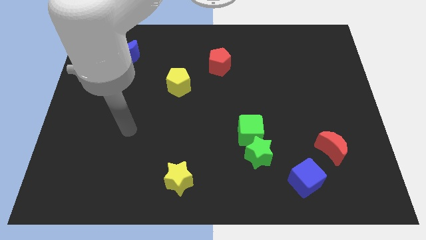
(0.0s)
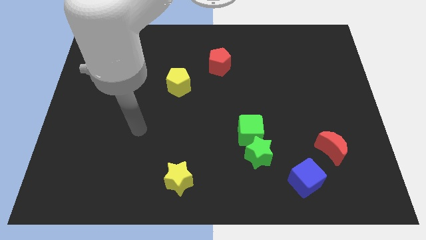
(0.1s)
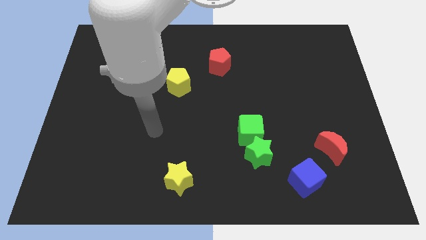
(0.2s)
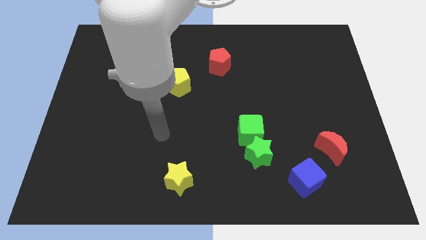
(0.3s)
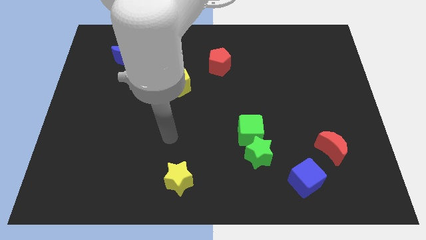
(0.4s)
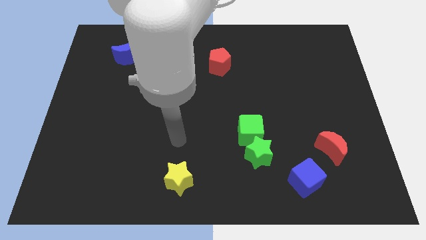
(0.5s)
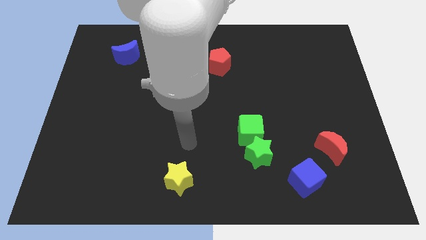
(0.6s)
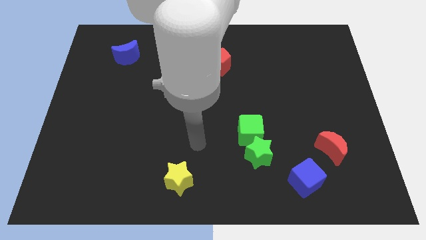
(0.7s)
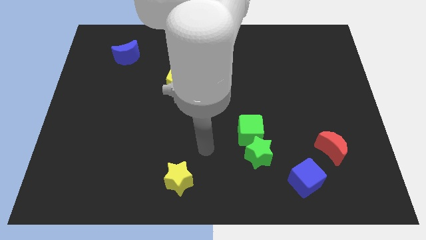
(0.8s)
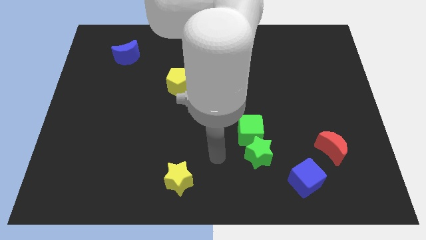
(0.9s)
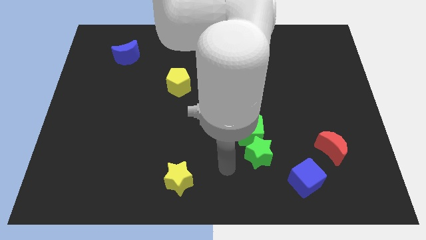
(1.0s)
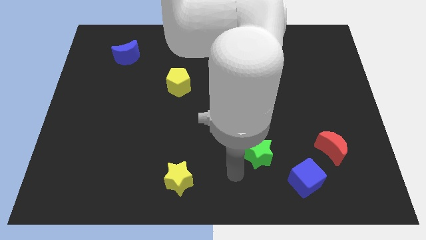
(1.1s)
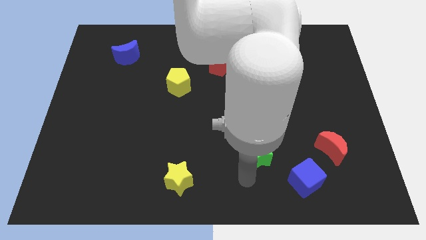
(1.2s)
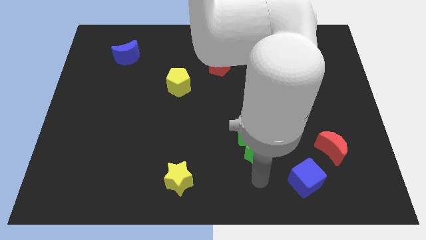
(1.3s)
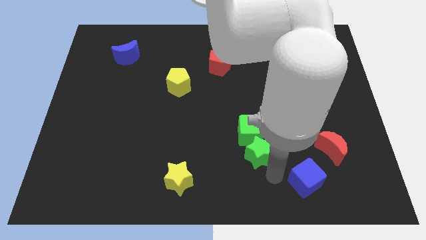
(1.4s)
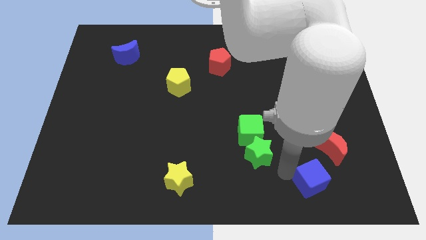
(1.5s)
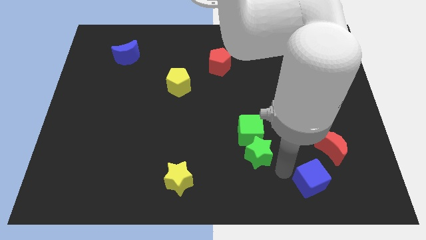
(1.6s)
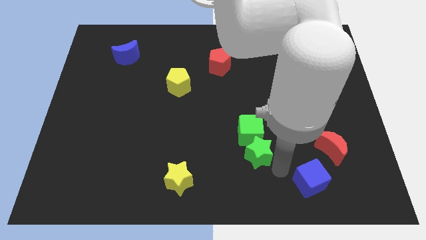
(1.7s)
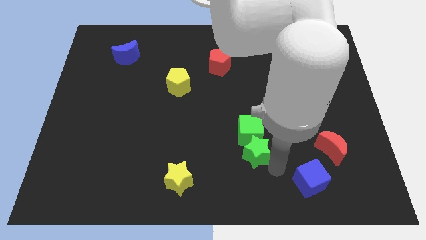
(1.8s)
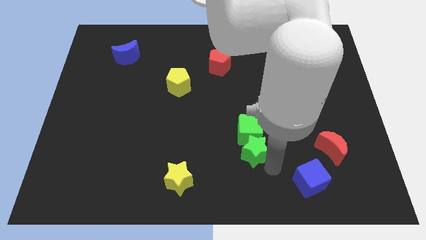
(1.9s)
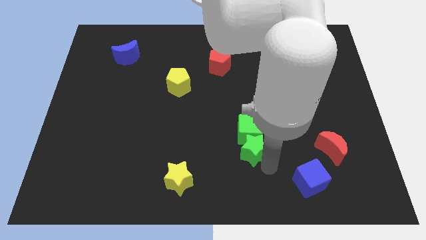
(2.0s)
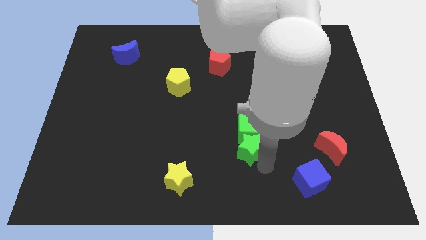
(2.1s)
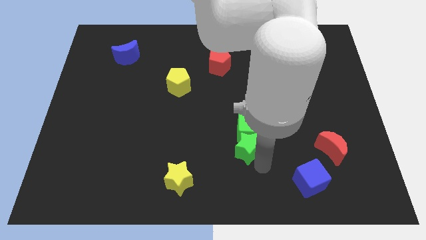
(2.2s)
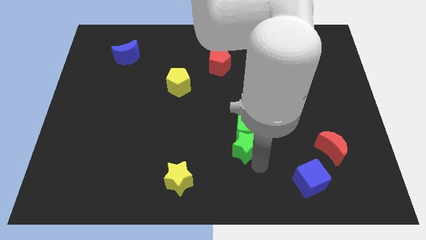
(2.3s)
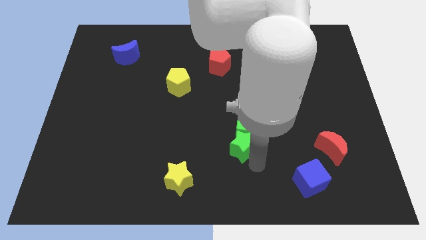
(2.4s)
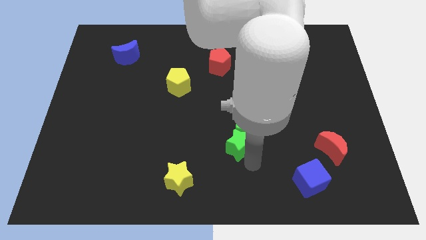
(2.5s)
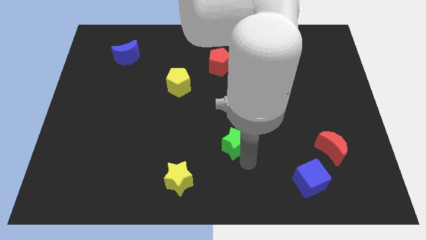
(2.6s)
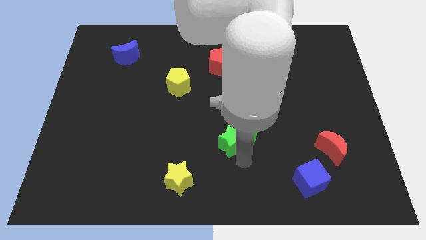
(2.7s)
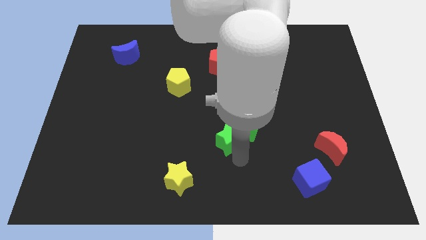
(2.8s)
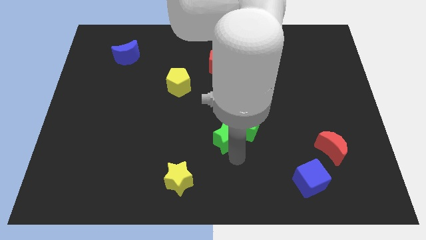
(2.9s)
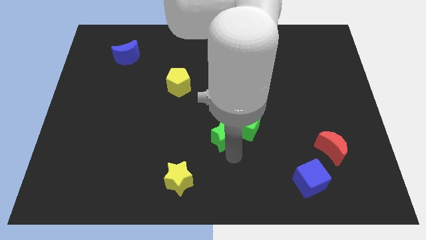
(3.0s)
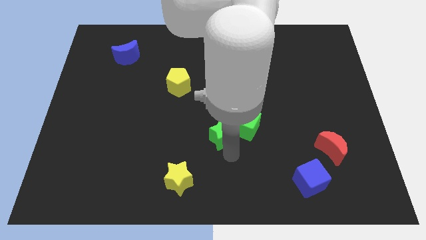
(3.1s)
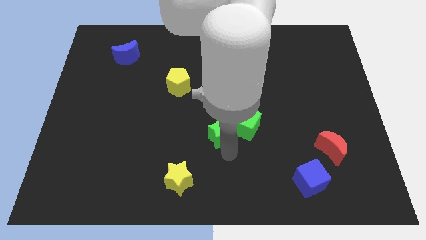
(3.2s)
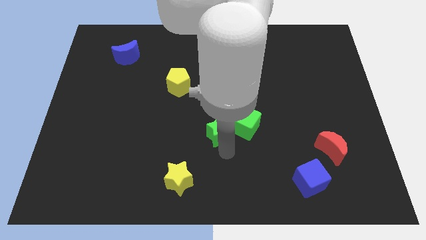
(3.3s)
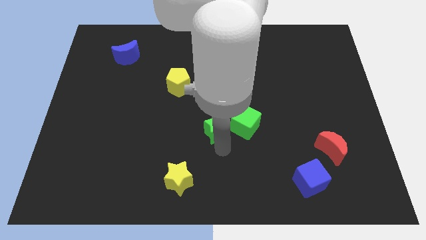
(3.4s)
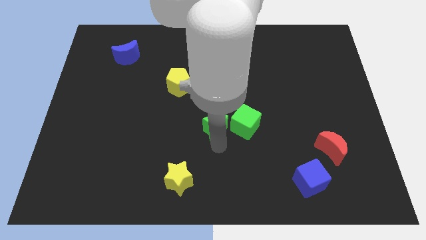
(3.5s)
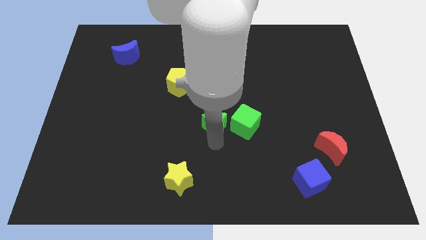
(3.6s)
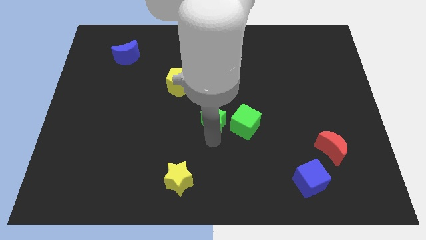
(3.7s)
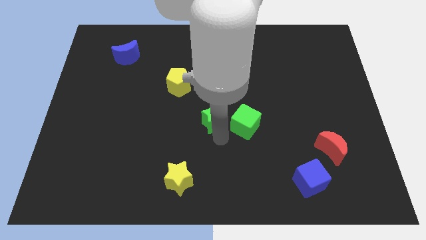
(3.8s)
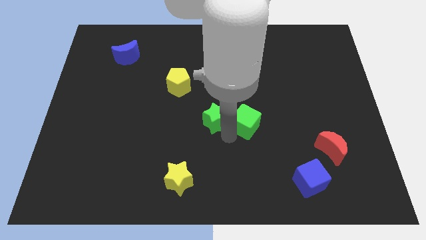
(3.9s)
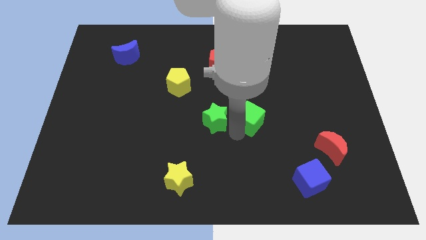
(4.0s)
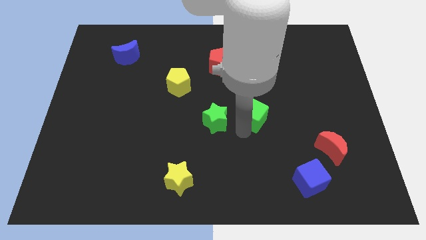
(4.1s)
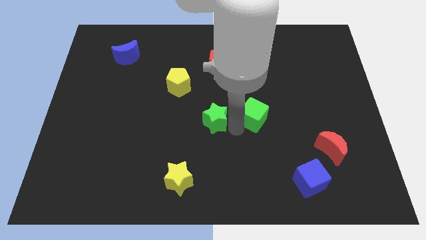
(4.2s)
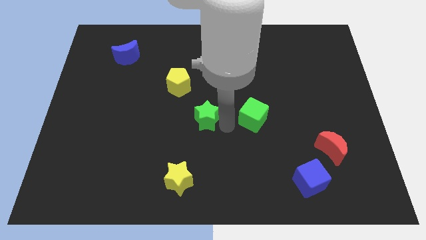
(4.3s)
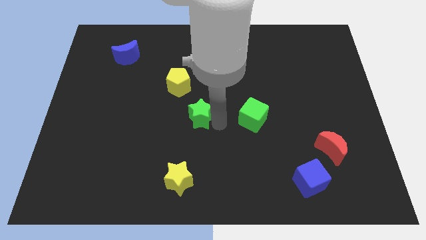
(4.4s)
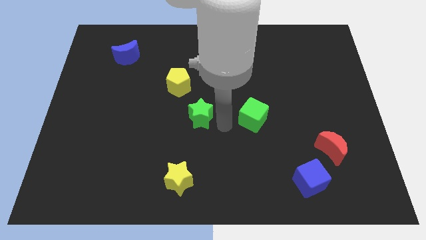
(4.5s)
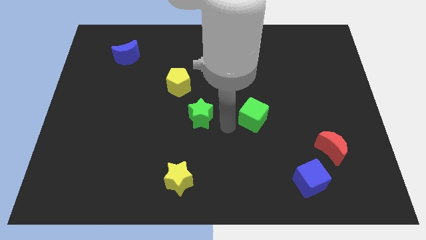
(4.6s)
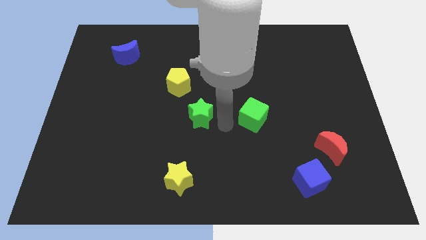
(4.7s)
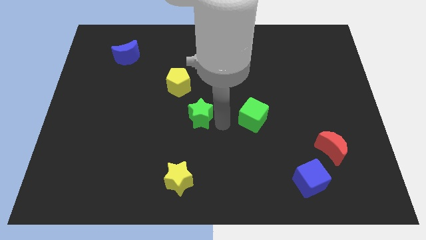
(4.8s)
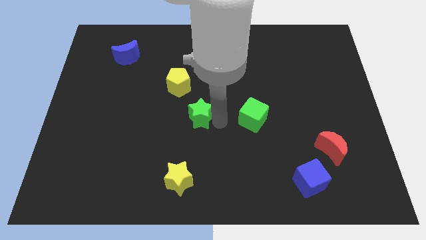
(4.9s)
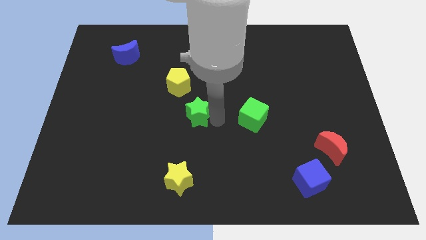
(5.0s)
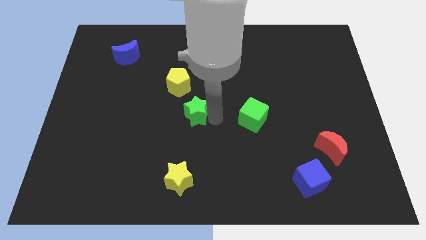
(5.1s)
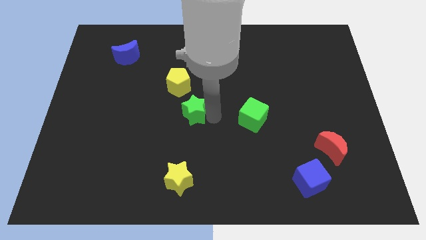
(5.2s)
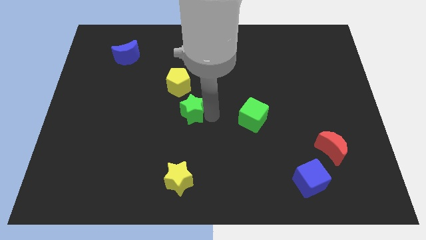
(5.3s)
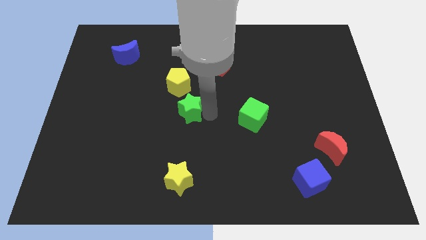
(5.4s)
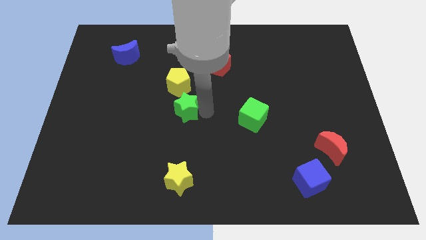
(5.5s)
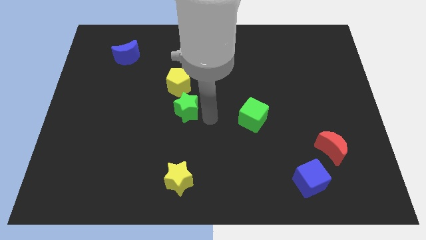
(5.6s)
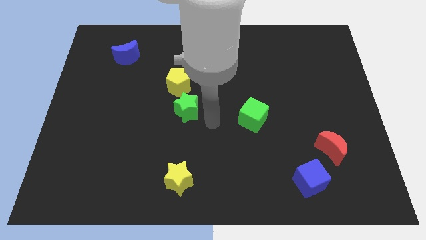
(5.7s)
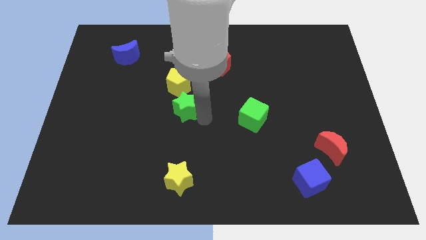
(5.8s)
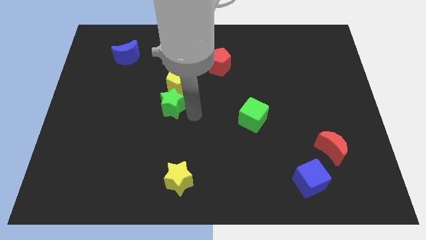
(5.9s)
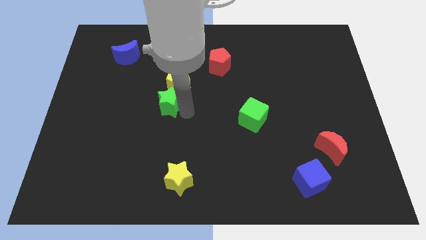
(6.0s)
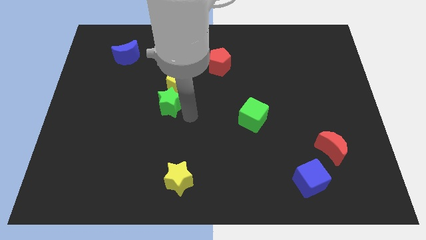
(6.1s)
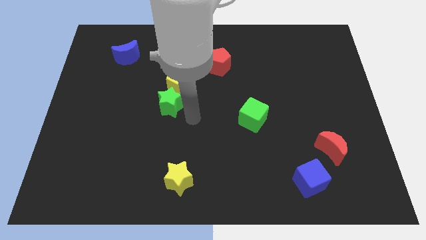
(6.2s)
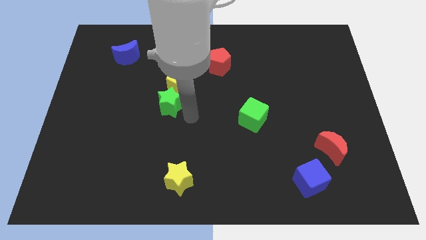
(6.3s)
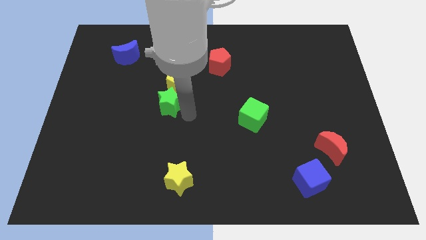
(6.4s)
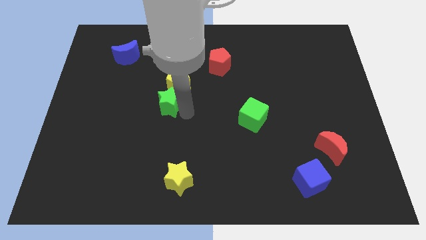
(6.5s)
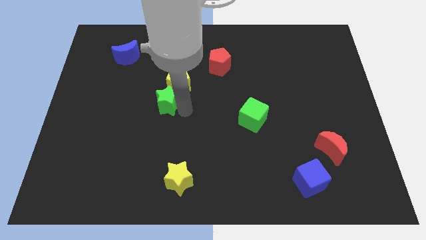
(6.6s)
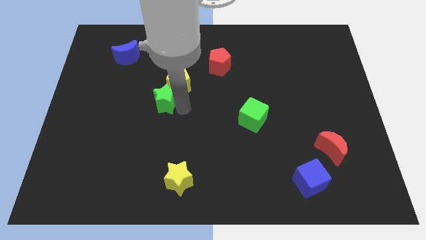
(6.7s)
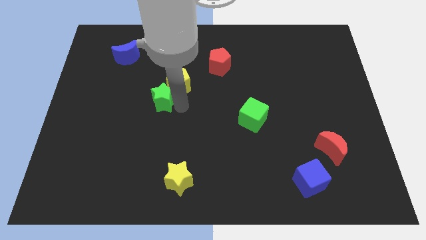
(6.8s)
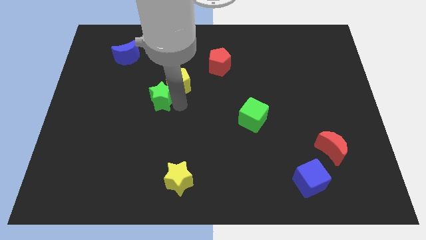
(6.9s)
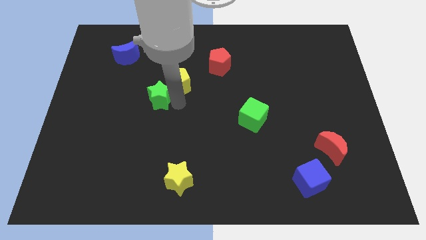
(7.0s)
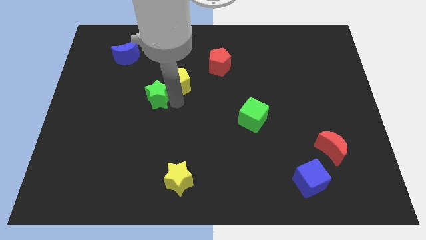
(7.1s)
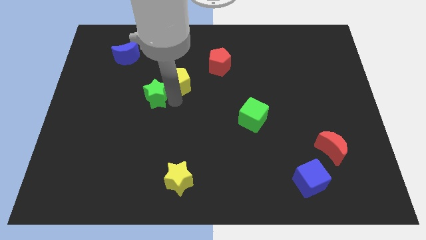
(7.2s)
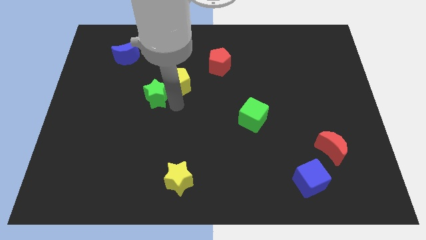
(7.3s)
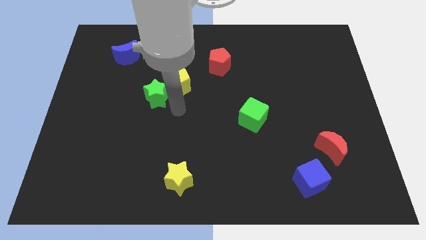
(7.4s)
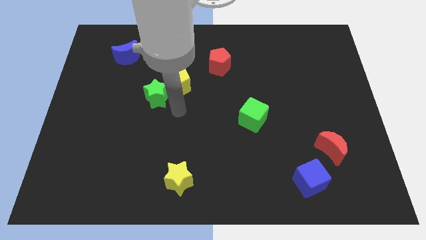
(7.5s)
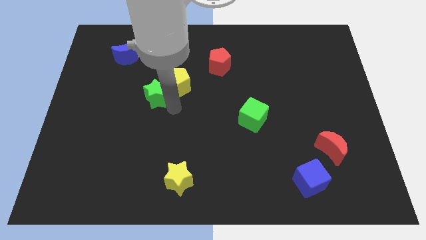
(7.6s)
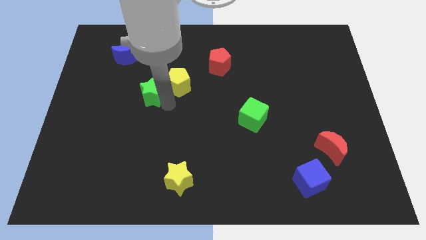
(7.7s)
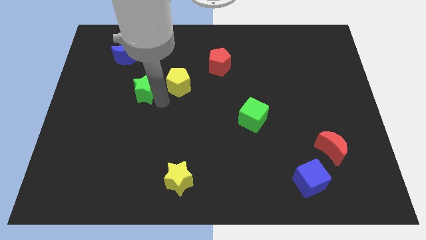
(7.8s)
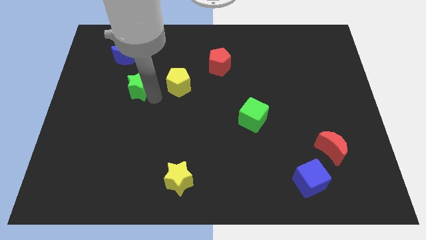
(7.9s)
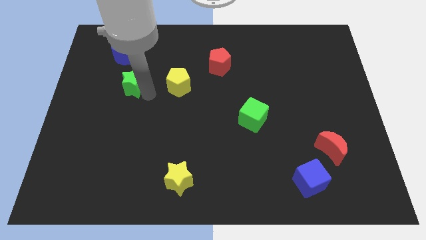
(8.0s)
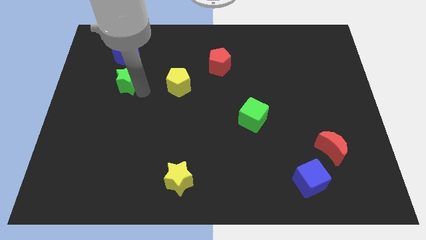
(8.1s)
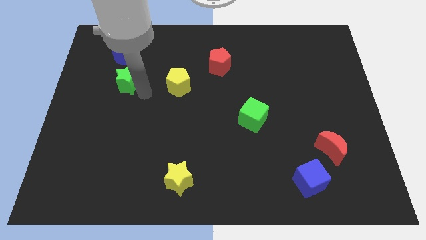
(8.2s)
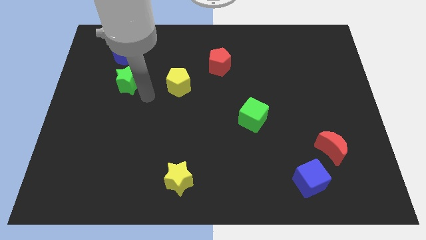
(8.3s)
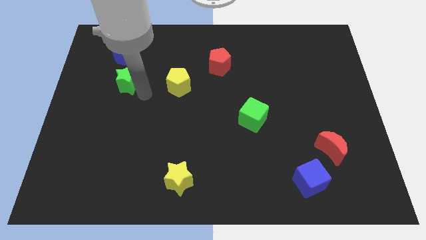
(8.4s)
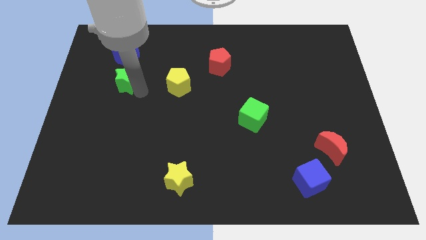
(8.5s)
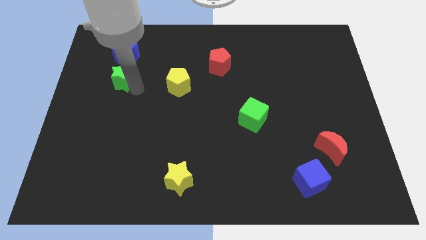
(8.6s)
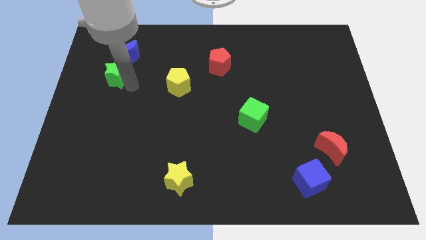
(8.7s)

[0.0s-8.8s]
push the green star diagonally down and to the left of the blue moon
